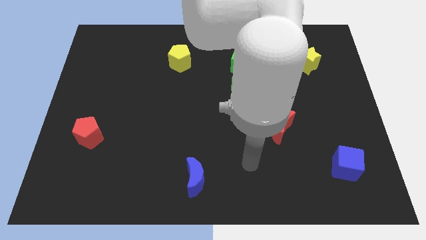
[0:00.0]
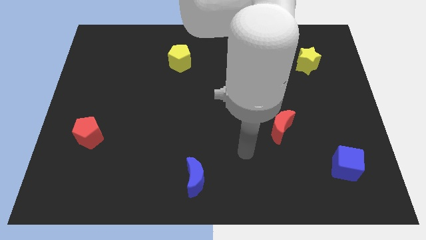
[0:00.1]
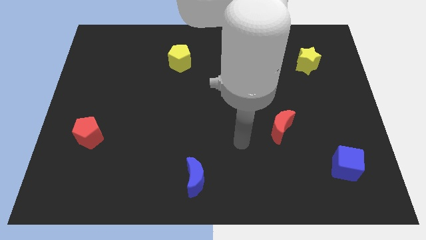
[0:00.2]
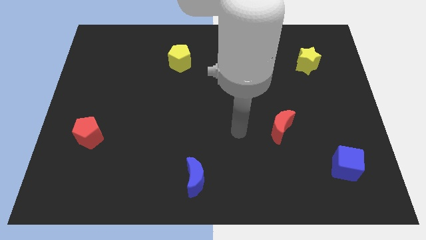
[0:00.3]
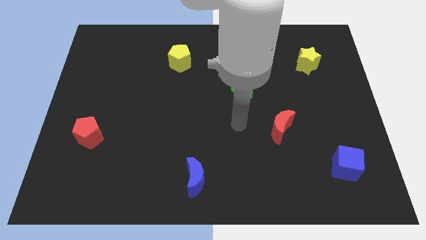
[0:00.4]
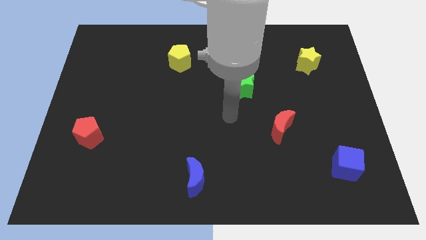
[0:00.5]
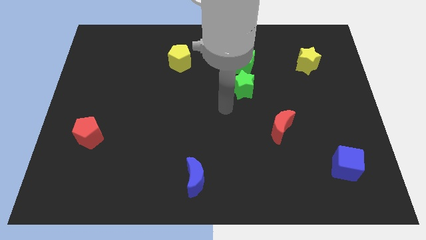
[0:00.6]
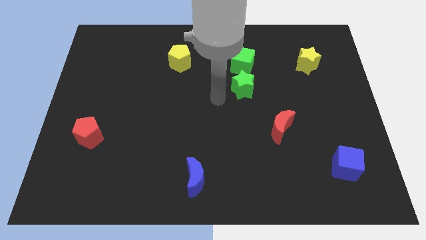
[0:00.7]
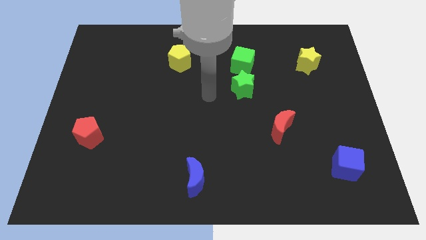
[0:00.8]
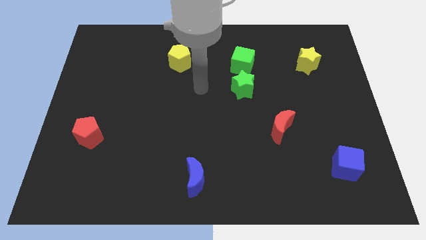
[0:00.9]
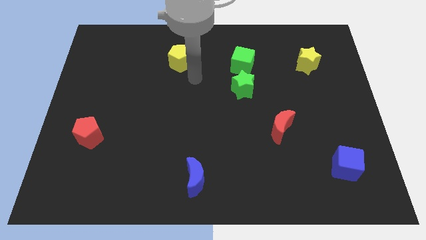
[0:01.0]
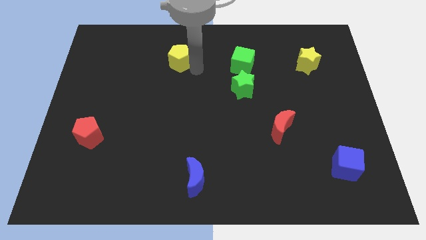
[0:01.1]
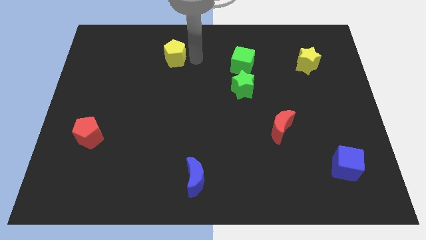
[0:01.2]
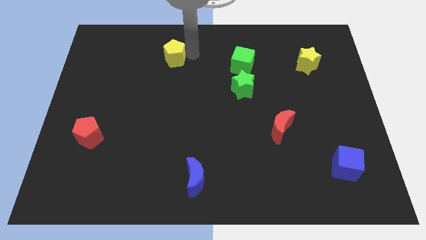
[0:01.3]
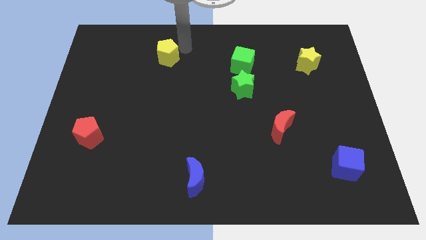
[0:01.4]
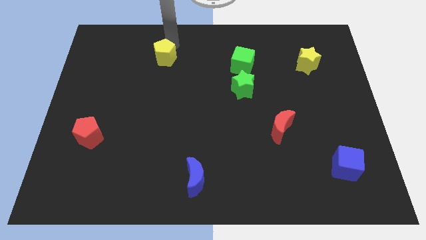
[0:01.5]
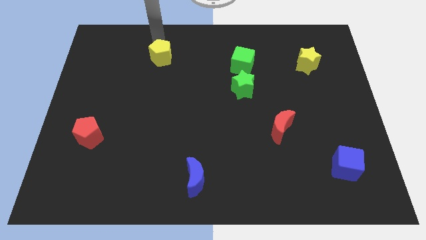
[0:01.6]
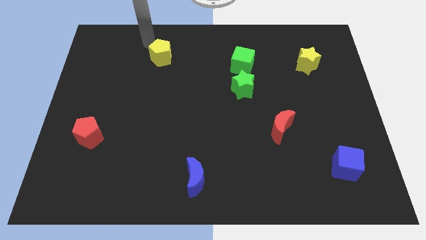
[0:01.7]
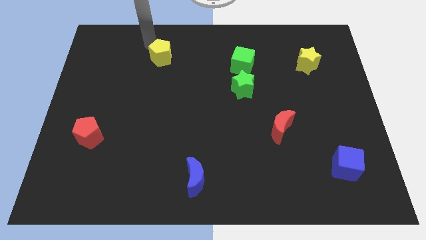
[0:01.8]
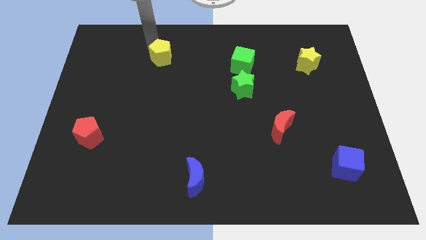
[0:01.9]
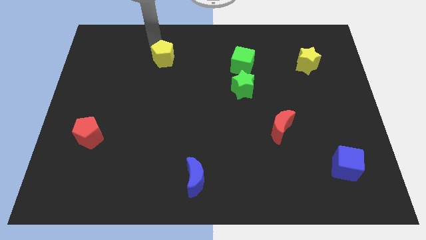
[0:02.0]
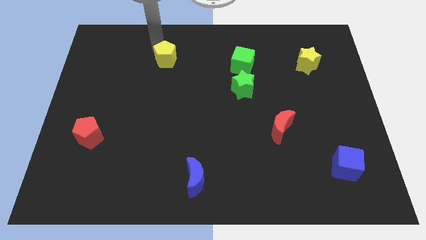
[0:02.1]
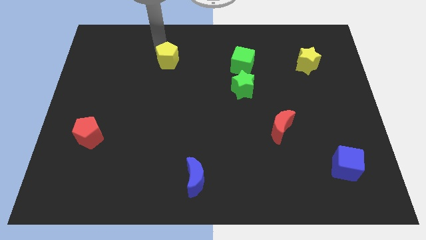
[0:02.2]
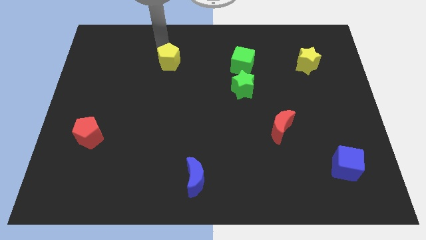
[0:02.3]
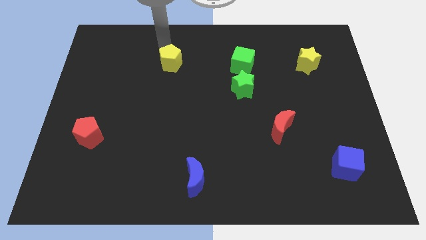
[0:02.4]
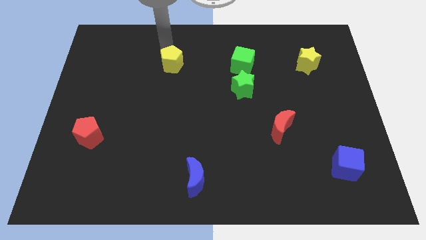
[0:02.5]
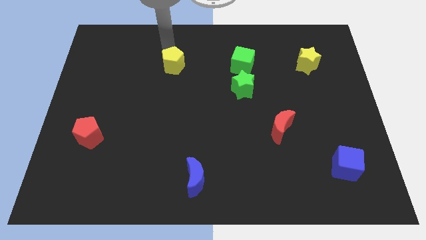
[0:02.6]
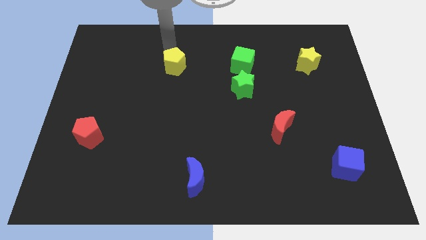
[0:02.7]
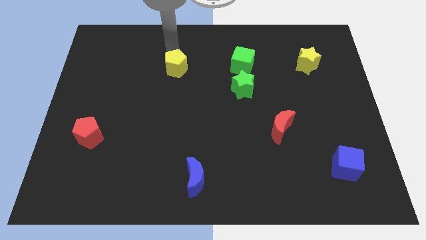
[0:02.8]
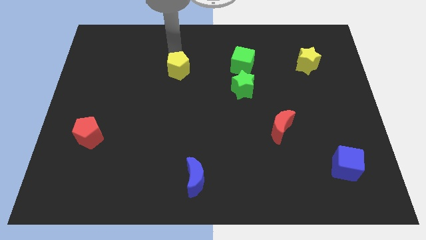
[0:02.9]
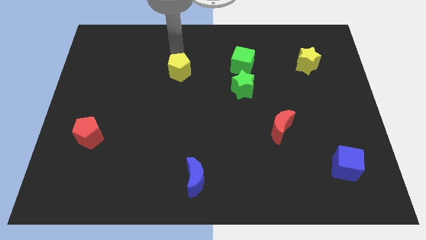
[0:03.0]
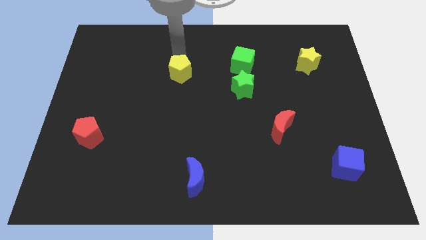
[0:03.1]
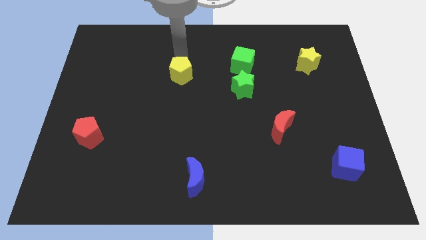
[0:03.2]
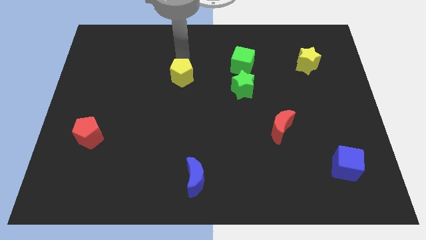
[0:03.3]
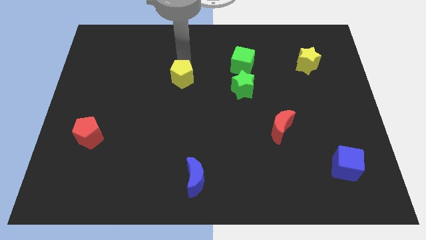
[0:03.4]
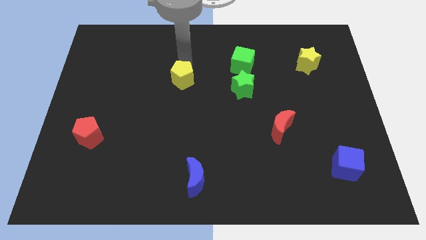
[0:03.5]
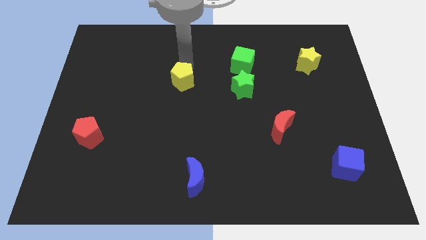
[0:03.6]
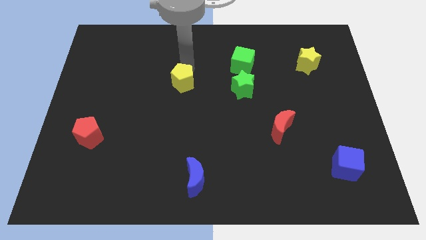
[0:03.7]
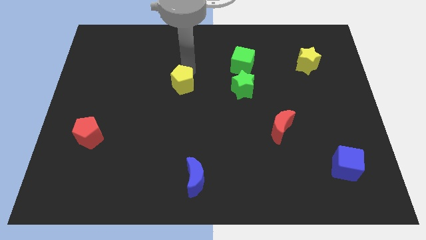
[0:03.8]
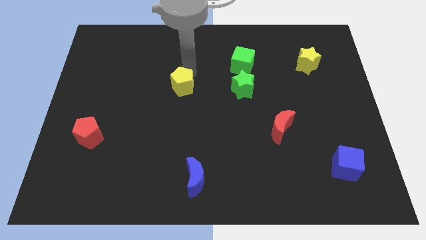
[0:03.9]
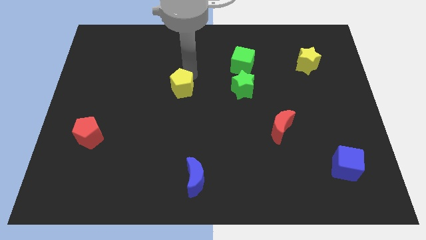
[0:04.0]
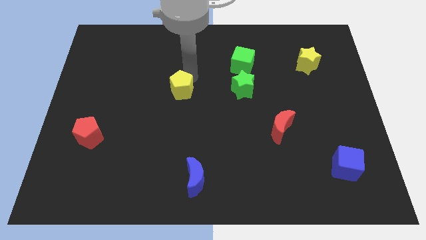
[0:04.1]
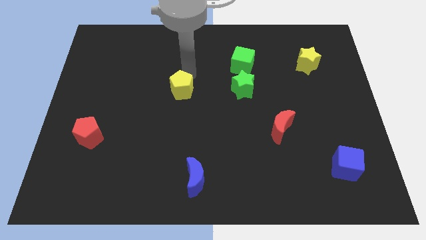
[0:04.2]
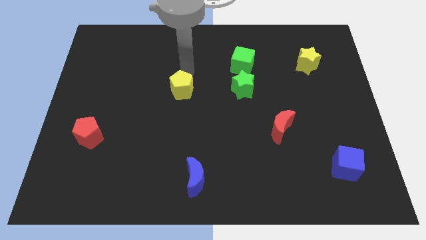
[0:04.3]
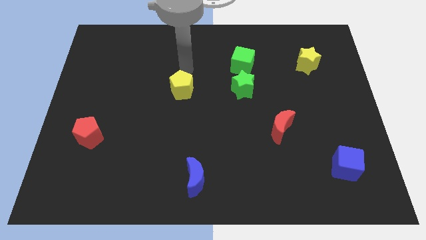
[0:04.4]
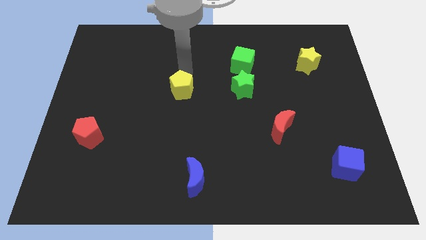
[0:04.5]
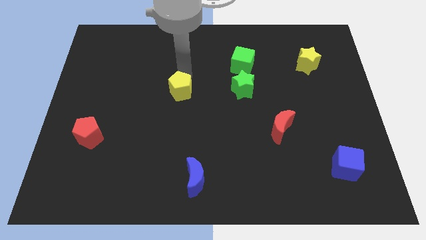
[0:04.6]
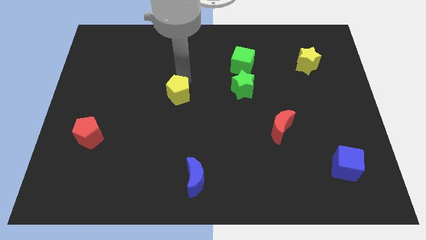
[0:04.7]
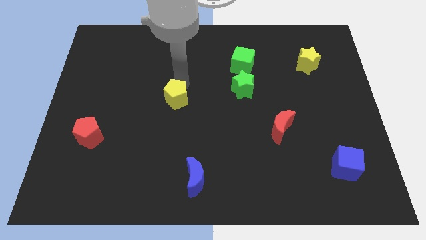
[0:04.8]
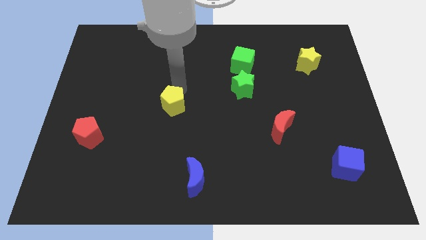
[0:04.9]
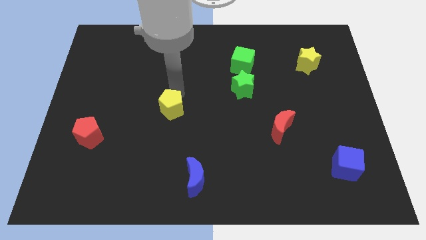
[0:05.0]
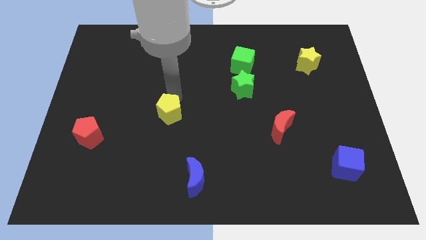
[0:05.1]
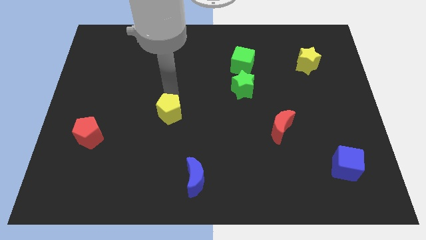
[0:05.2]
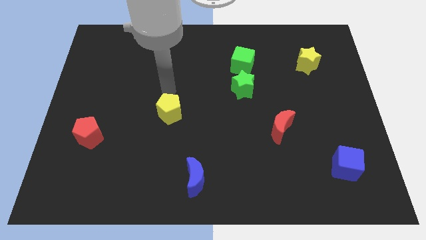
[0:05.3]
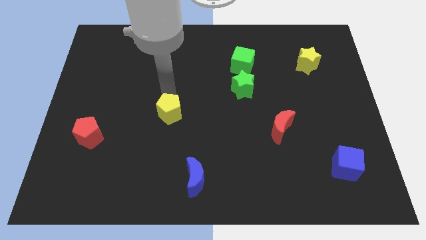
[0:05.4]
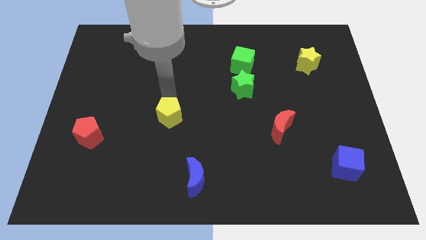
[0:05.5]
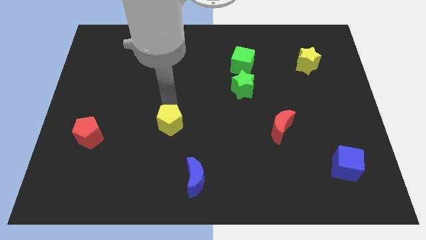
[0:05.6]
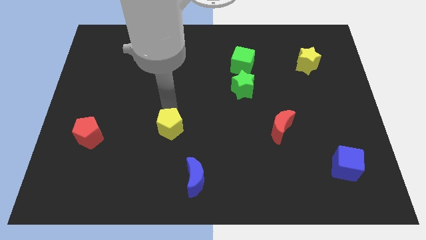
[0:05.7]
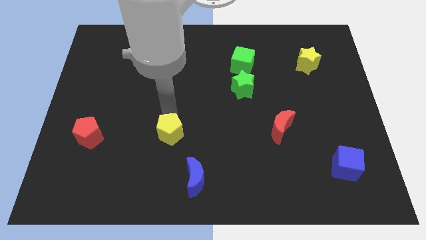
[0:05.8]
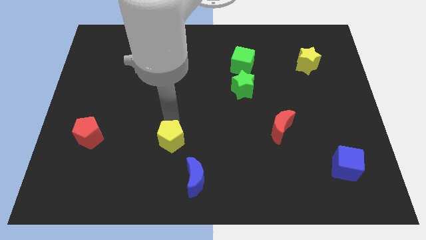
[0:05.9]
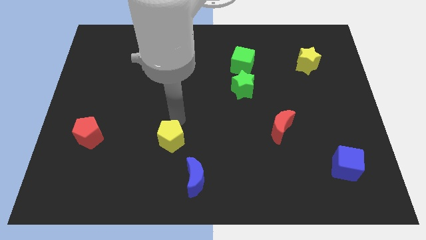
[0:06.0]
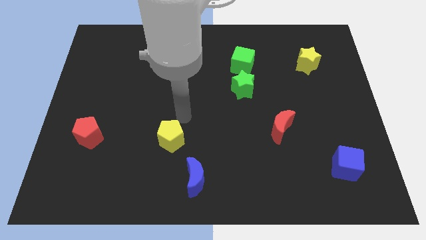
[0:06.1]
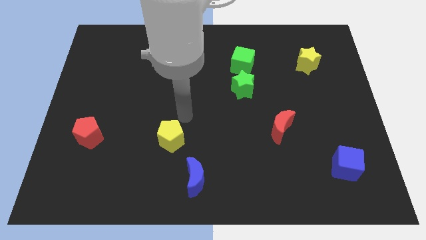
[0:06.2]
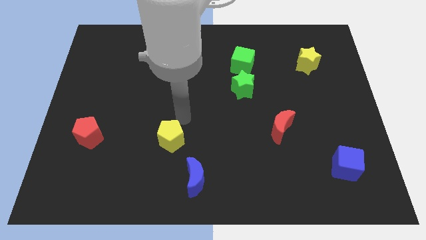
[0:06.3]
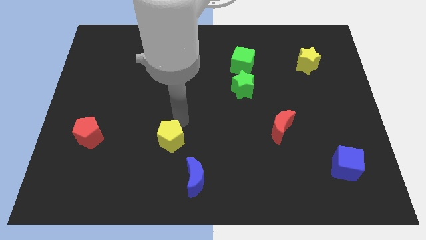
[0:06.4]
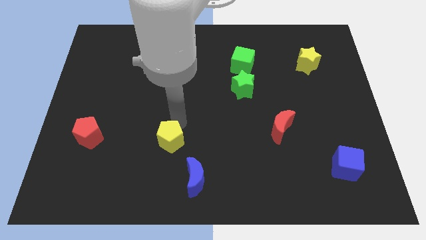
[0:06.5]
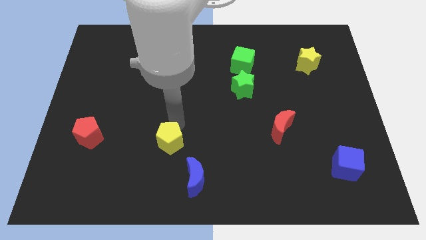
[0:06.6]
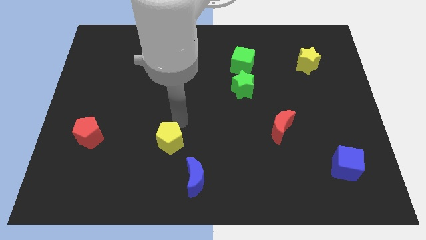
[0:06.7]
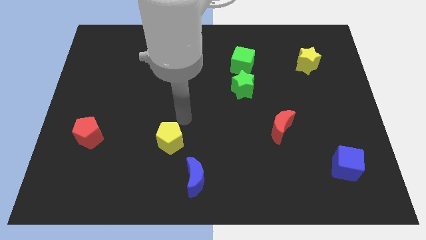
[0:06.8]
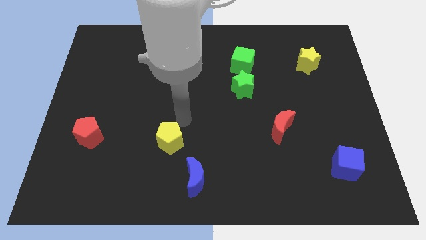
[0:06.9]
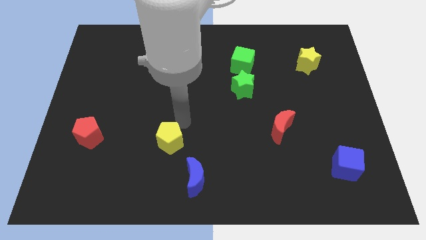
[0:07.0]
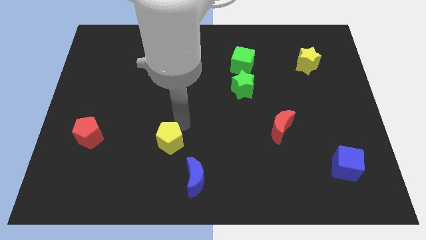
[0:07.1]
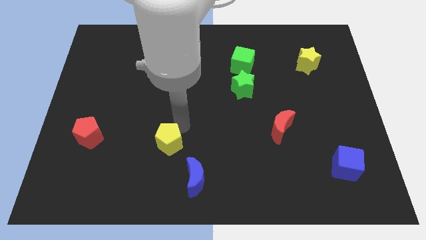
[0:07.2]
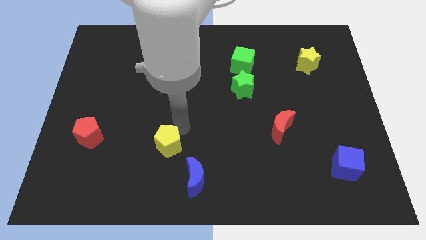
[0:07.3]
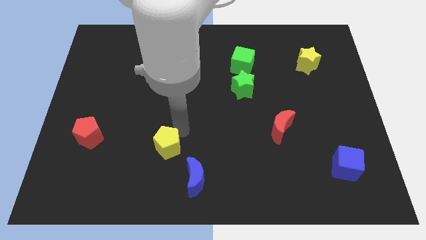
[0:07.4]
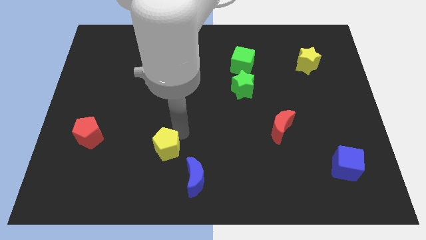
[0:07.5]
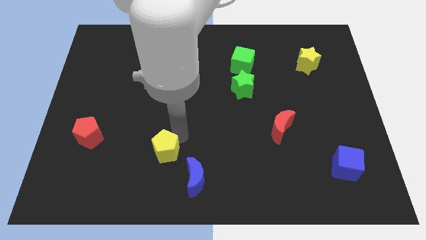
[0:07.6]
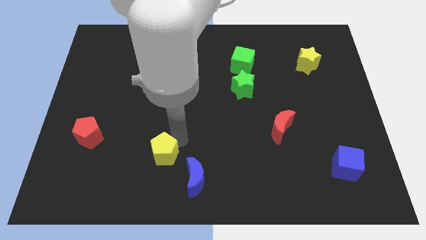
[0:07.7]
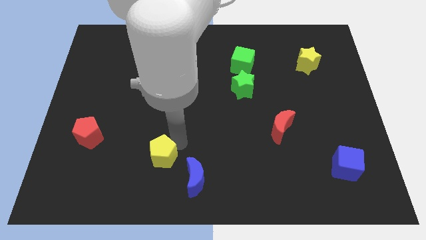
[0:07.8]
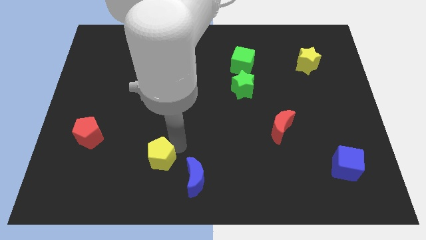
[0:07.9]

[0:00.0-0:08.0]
push the yellow pentagon to the left side of the blue moon
